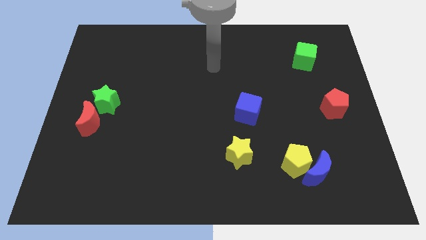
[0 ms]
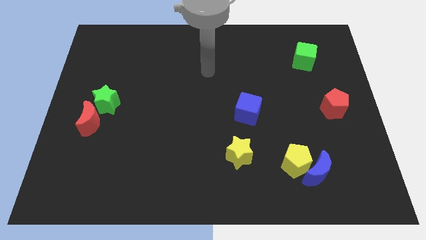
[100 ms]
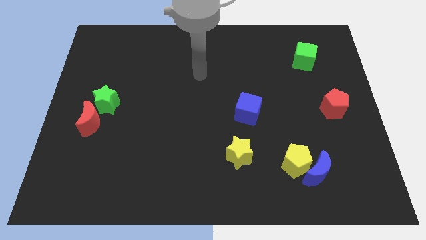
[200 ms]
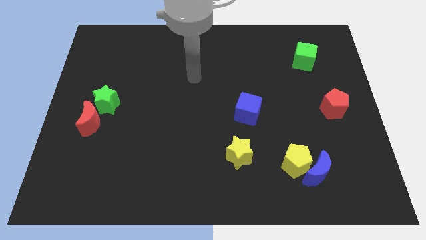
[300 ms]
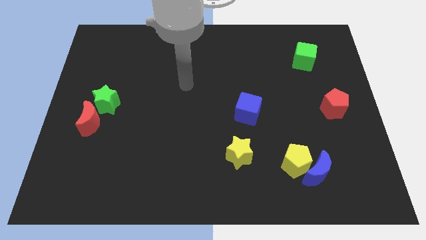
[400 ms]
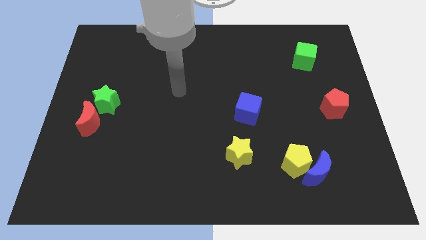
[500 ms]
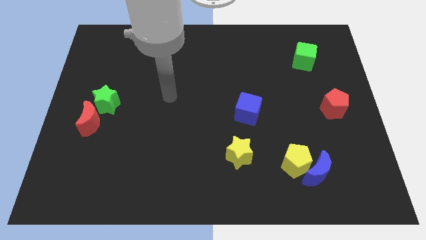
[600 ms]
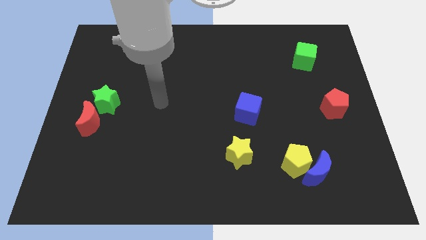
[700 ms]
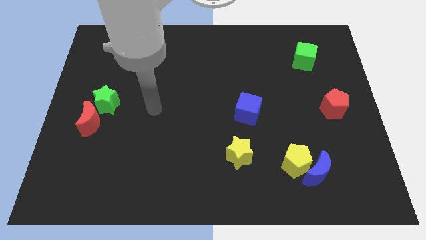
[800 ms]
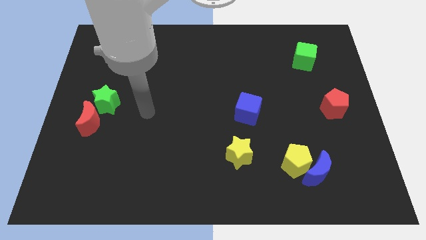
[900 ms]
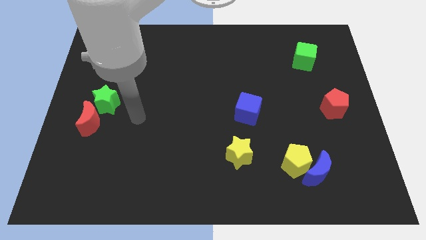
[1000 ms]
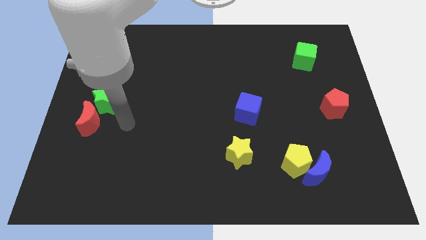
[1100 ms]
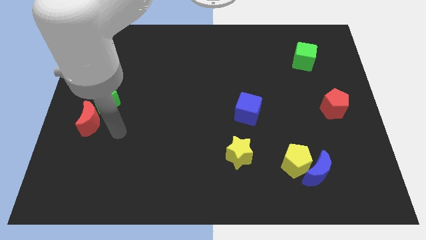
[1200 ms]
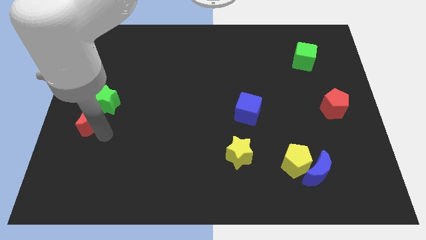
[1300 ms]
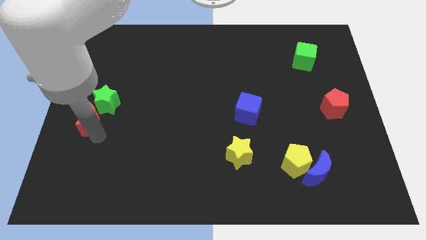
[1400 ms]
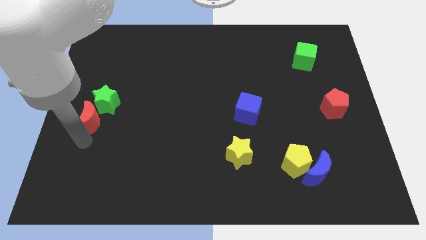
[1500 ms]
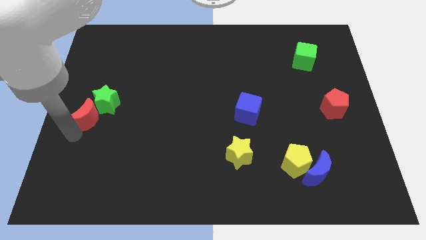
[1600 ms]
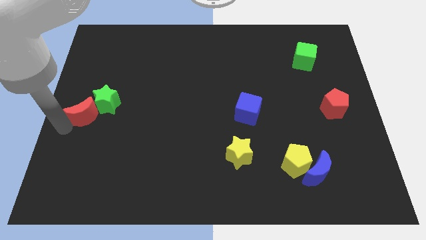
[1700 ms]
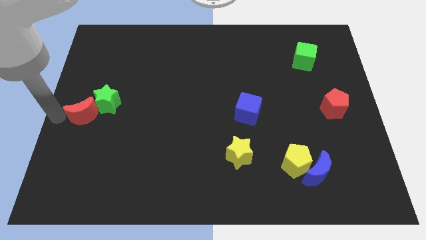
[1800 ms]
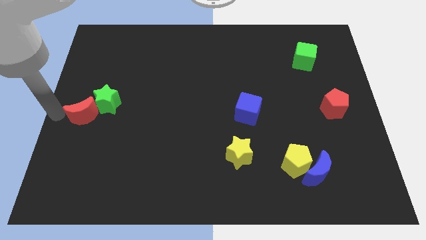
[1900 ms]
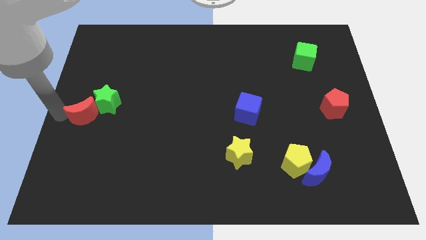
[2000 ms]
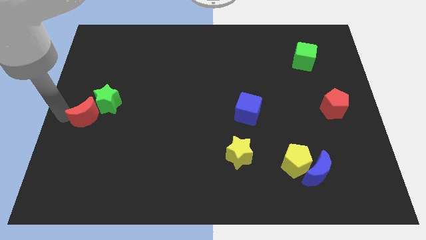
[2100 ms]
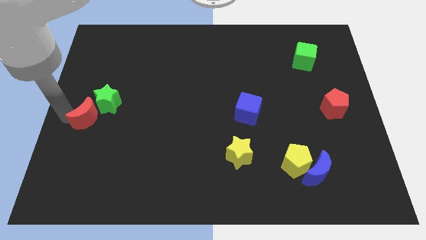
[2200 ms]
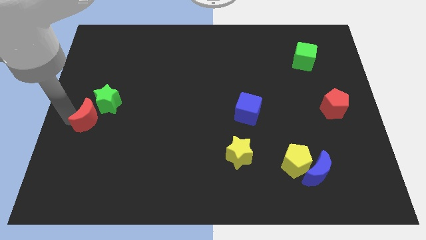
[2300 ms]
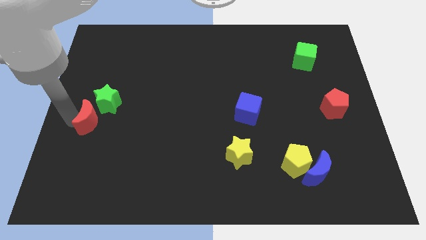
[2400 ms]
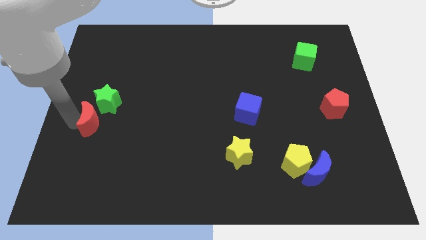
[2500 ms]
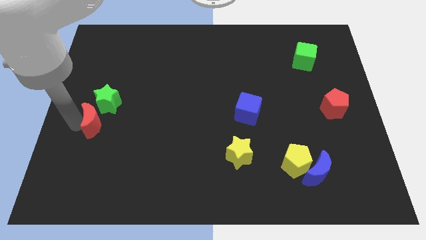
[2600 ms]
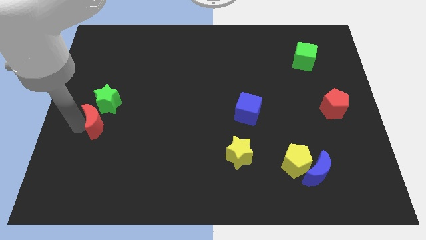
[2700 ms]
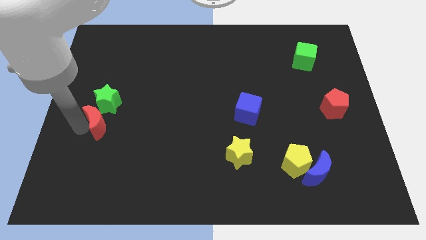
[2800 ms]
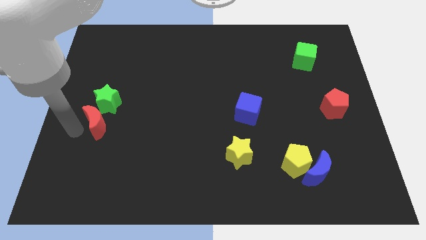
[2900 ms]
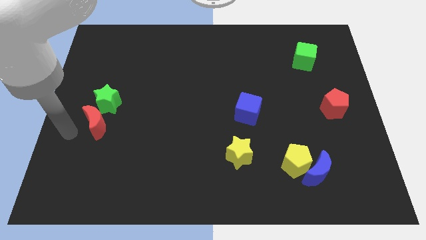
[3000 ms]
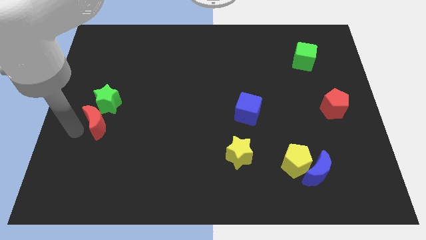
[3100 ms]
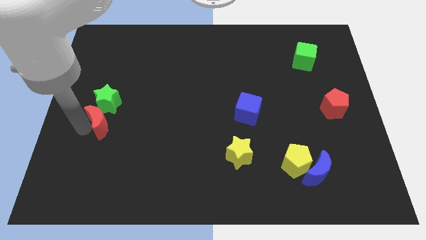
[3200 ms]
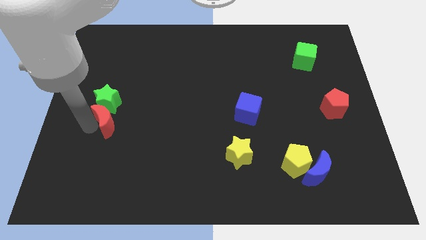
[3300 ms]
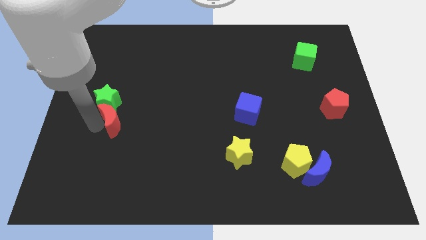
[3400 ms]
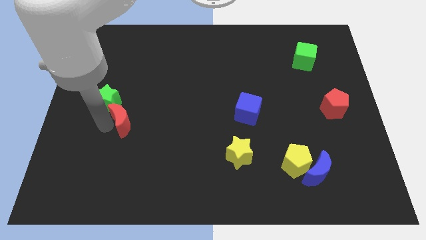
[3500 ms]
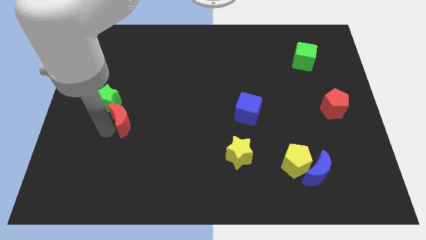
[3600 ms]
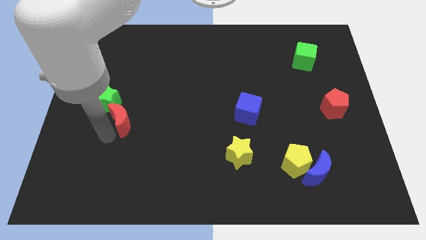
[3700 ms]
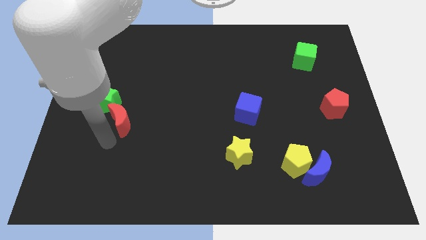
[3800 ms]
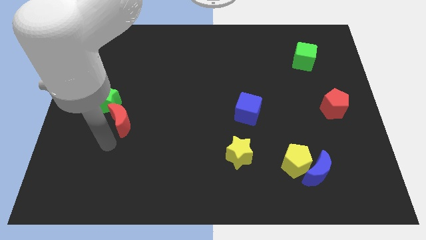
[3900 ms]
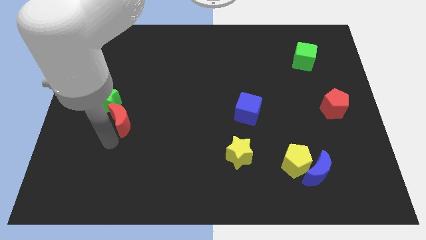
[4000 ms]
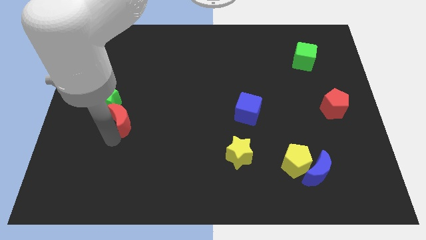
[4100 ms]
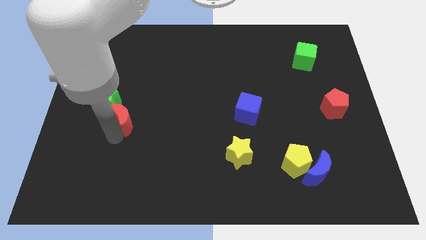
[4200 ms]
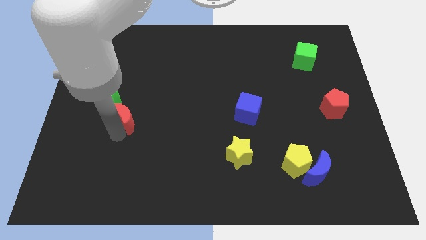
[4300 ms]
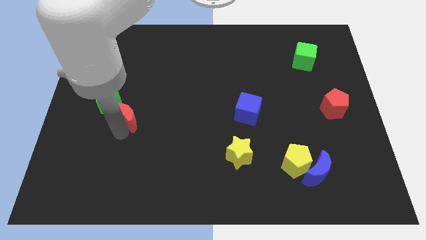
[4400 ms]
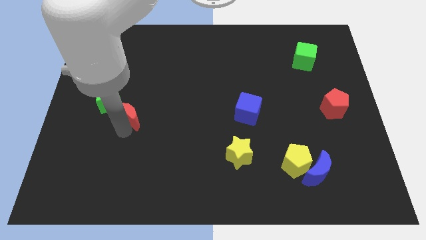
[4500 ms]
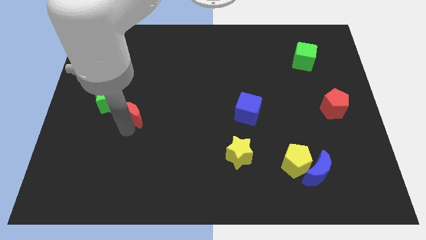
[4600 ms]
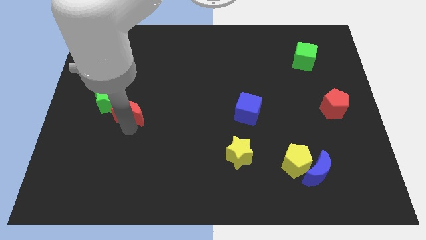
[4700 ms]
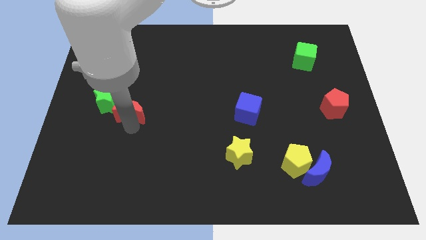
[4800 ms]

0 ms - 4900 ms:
move the red moon upwards and right a little bit

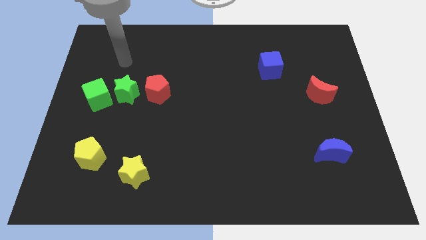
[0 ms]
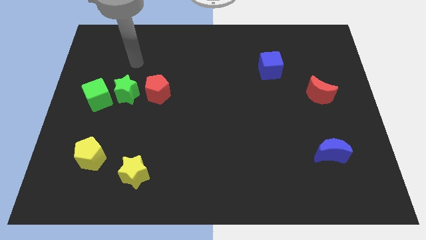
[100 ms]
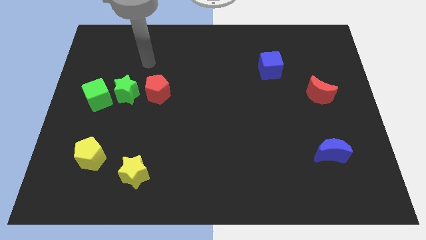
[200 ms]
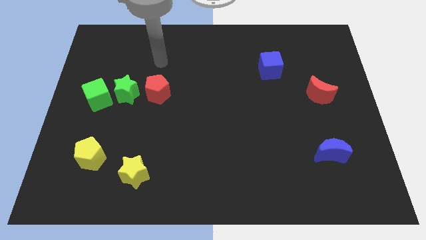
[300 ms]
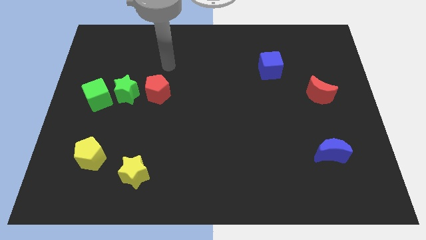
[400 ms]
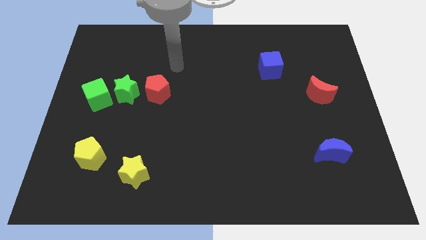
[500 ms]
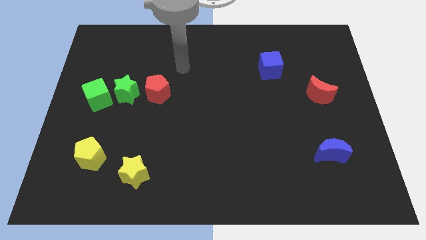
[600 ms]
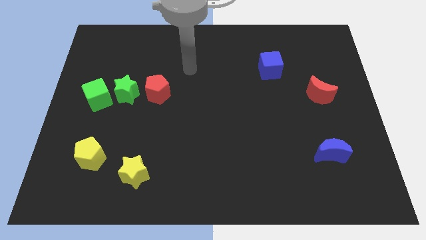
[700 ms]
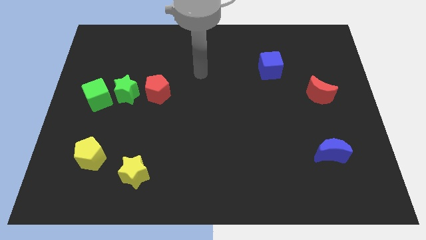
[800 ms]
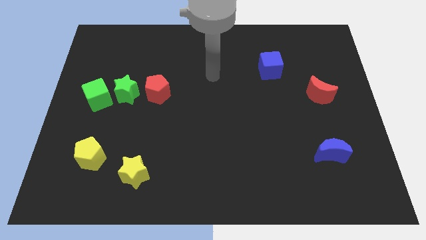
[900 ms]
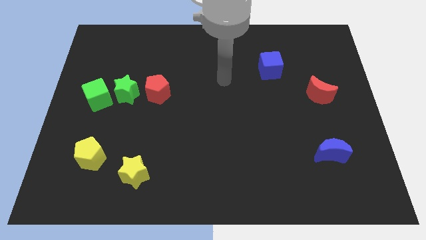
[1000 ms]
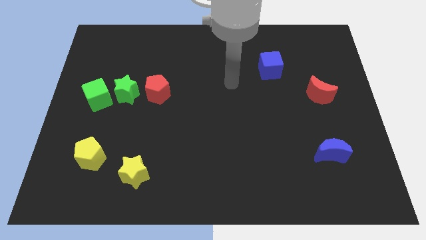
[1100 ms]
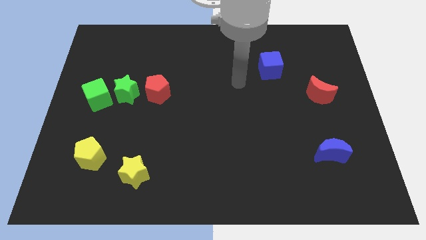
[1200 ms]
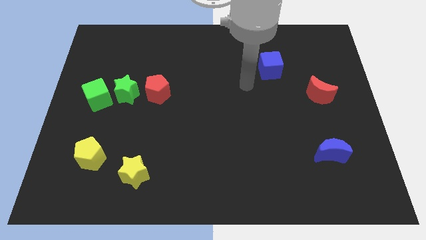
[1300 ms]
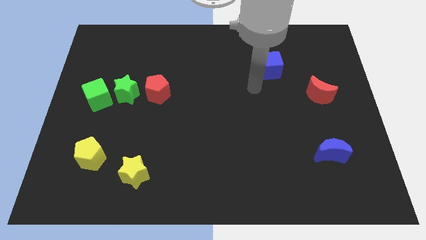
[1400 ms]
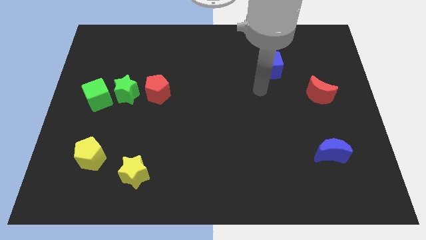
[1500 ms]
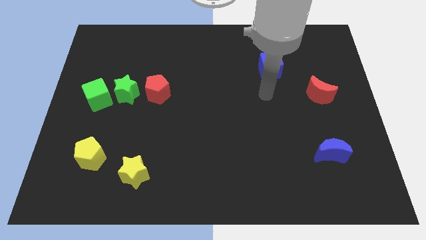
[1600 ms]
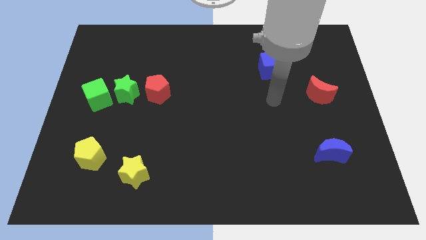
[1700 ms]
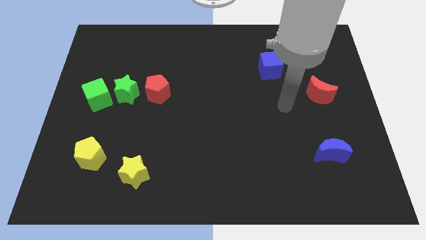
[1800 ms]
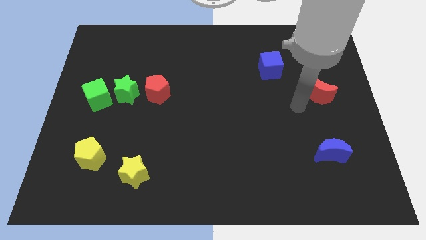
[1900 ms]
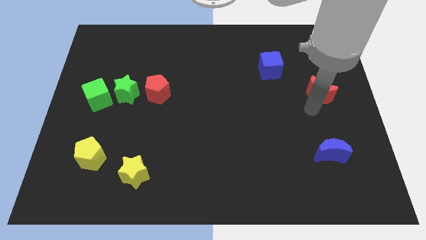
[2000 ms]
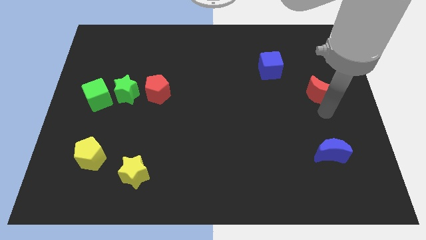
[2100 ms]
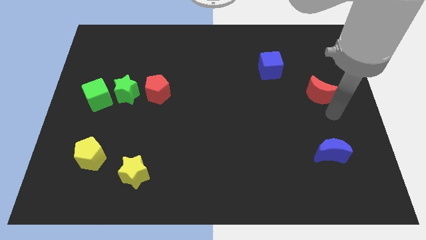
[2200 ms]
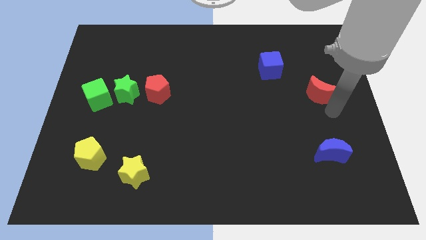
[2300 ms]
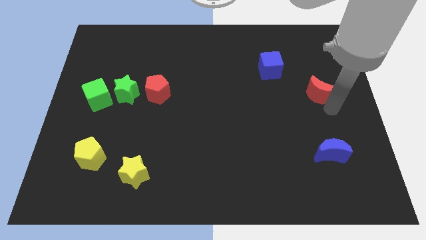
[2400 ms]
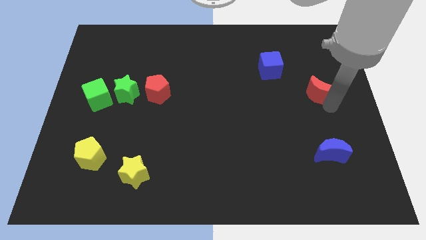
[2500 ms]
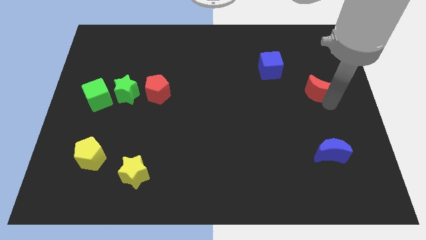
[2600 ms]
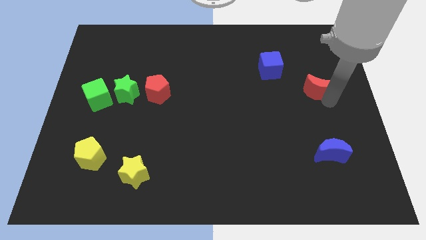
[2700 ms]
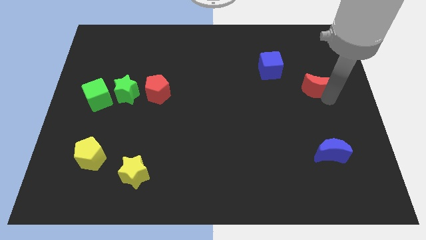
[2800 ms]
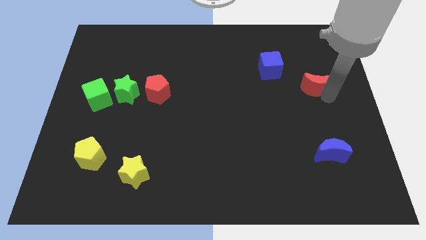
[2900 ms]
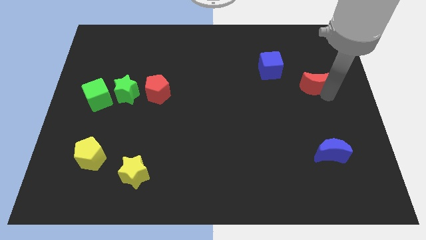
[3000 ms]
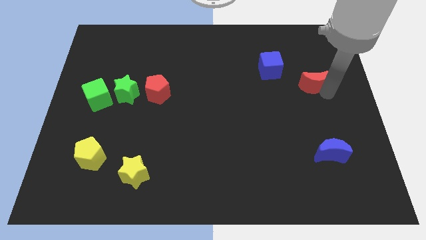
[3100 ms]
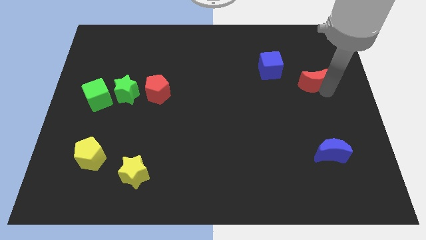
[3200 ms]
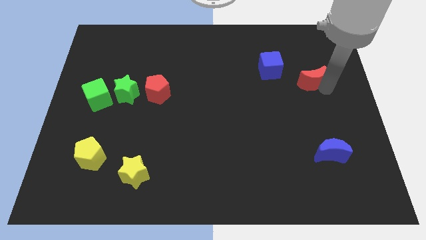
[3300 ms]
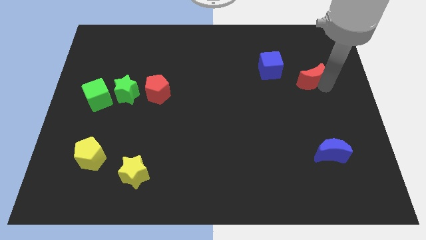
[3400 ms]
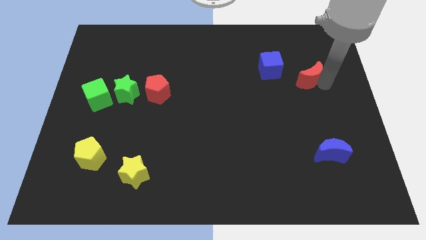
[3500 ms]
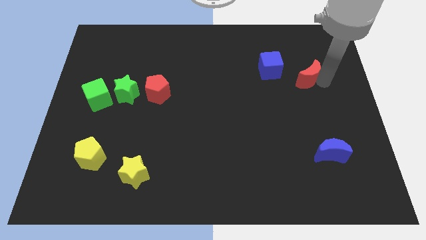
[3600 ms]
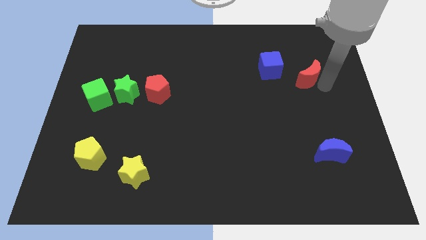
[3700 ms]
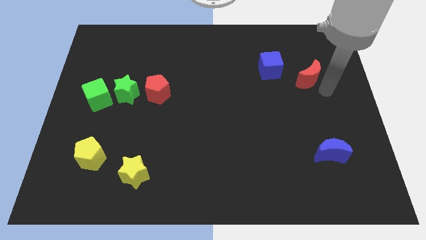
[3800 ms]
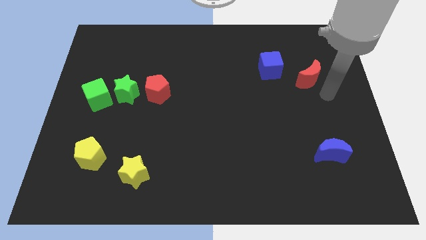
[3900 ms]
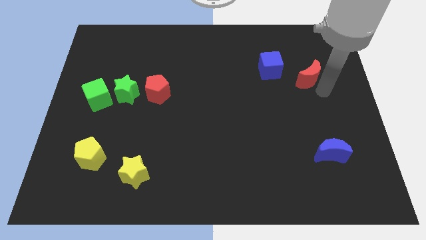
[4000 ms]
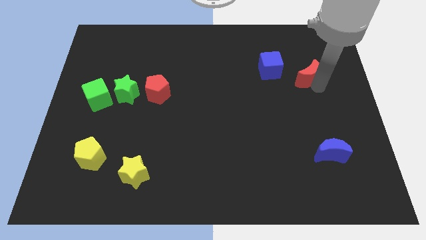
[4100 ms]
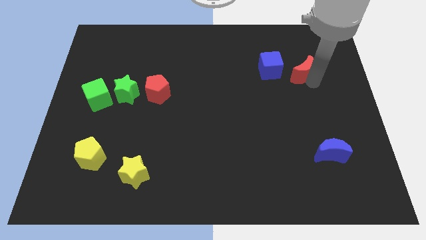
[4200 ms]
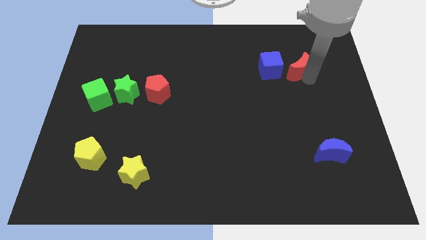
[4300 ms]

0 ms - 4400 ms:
slide the red moon a little upwards and then to the left
